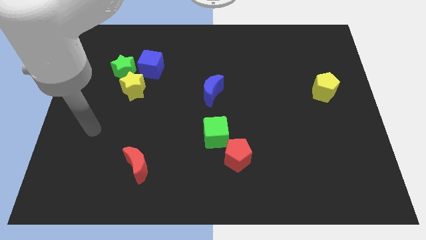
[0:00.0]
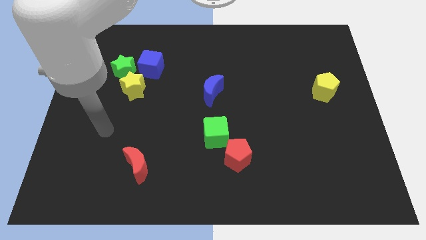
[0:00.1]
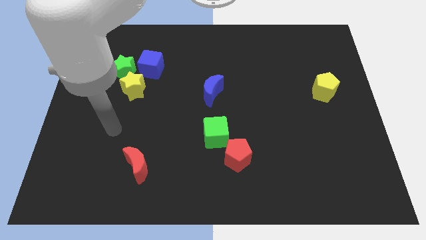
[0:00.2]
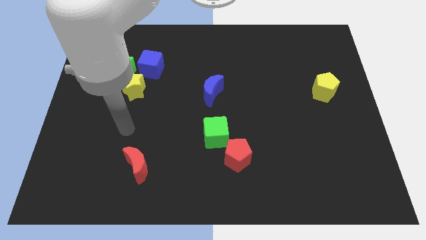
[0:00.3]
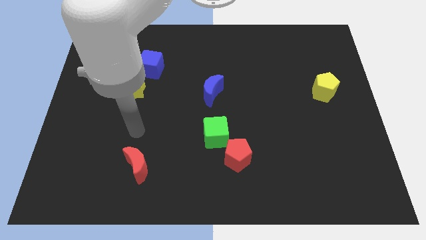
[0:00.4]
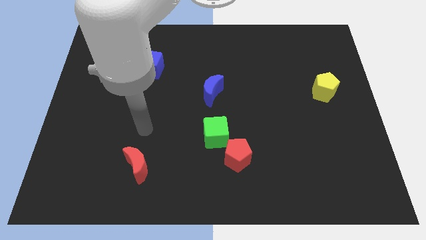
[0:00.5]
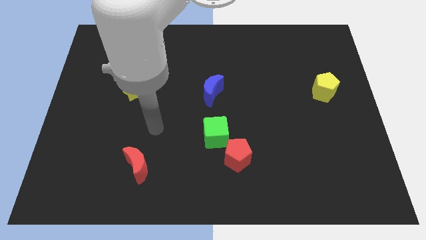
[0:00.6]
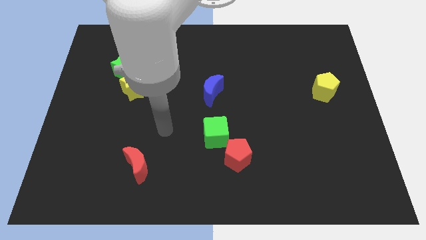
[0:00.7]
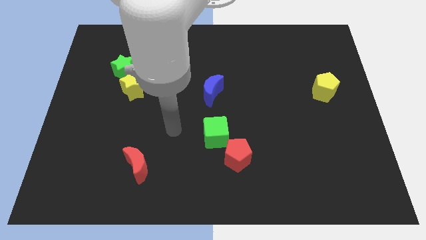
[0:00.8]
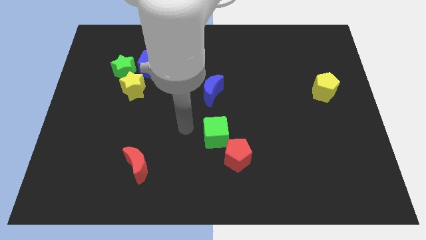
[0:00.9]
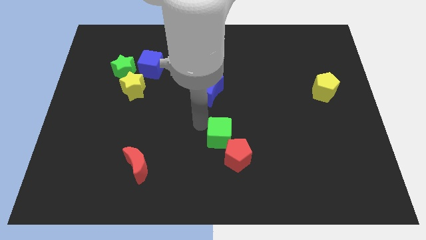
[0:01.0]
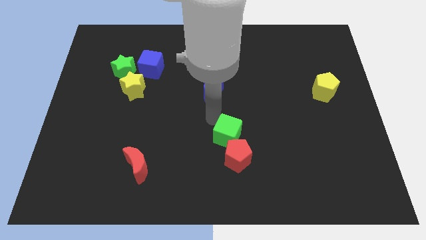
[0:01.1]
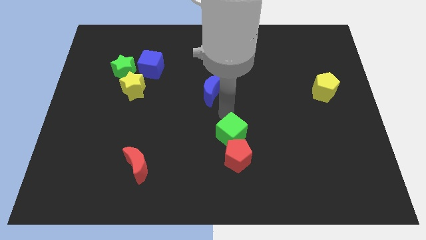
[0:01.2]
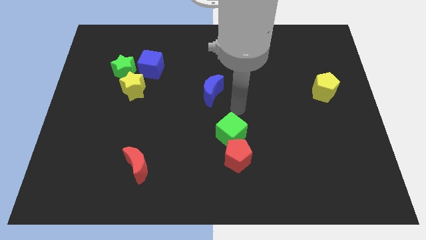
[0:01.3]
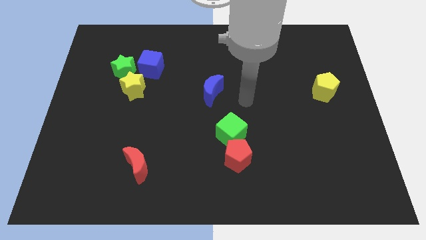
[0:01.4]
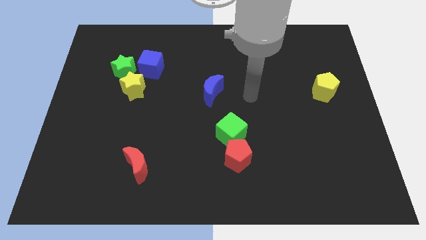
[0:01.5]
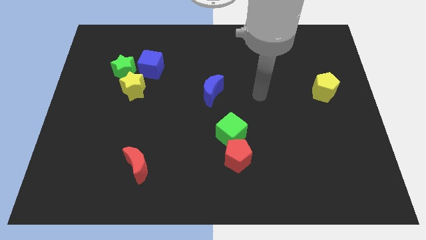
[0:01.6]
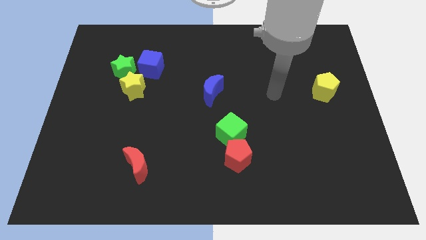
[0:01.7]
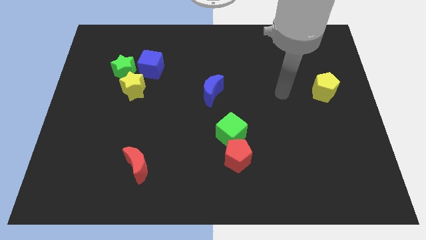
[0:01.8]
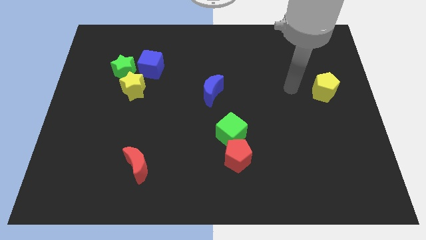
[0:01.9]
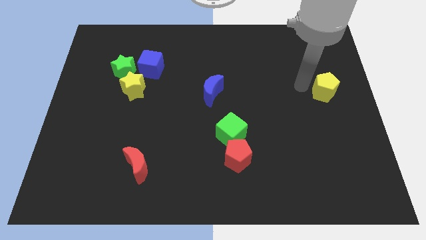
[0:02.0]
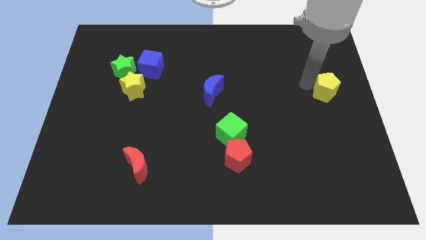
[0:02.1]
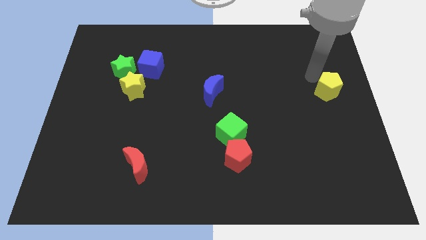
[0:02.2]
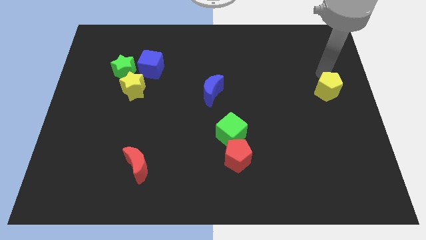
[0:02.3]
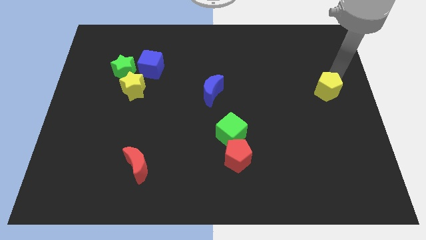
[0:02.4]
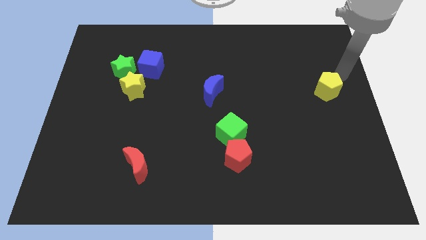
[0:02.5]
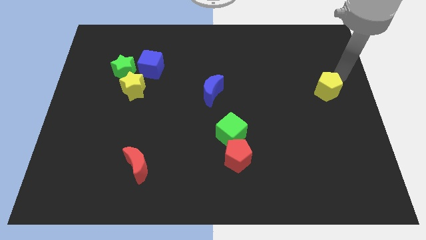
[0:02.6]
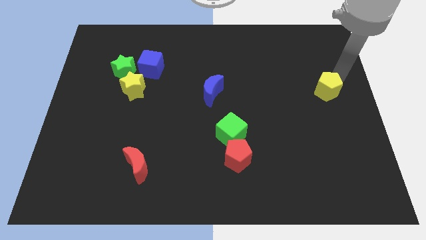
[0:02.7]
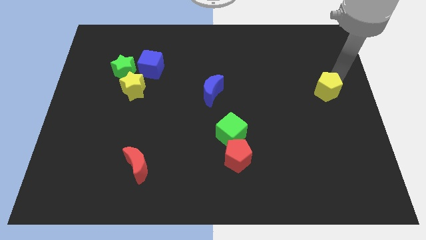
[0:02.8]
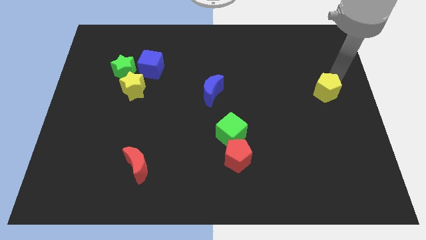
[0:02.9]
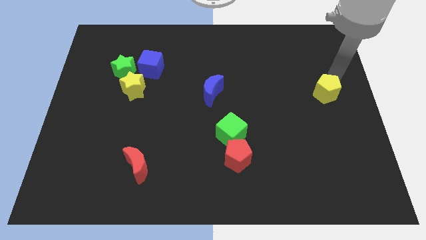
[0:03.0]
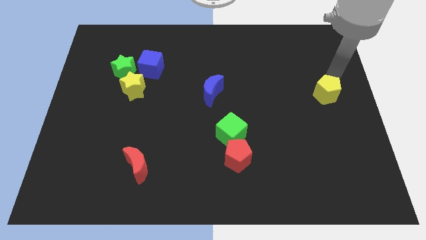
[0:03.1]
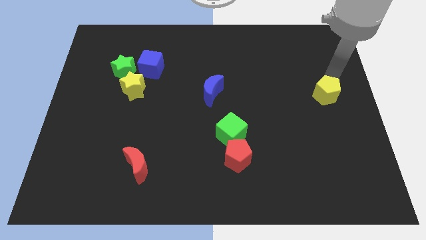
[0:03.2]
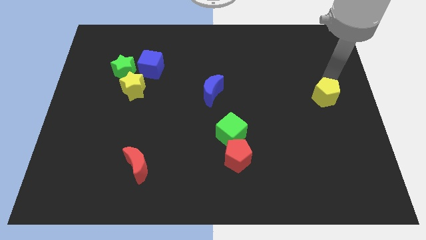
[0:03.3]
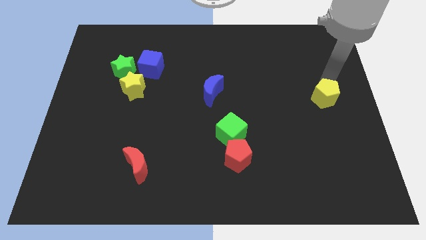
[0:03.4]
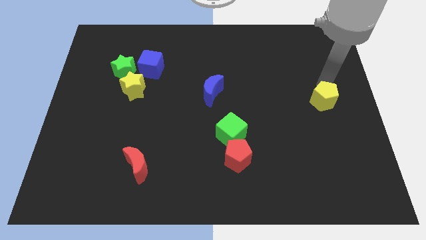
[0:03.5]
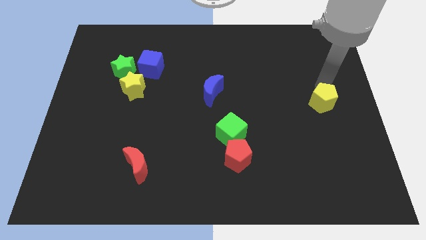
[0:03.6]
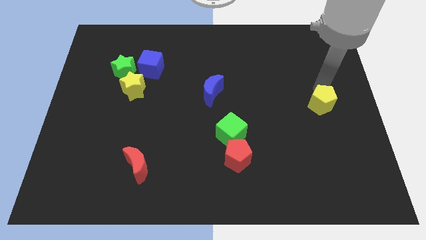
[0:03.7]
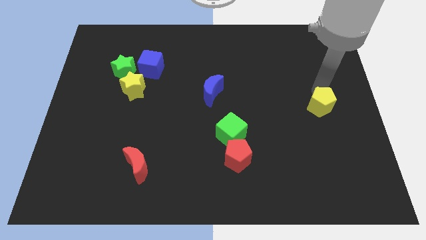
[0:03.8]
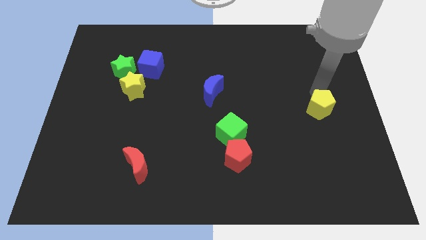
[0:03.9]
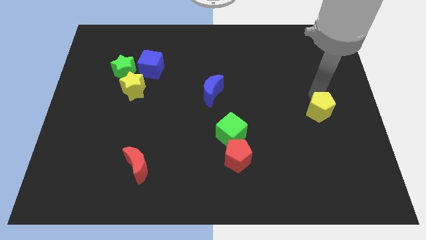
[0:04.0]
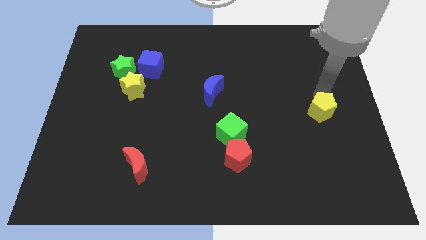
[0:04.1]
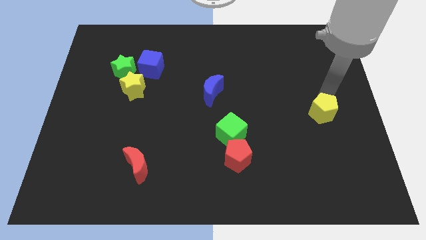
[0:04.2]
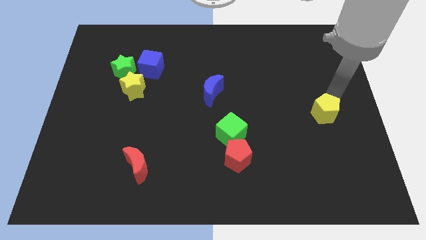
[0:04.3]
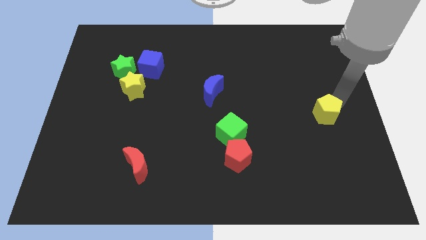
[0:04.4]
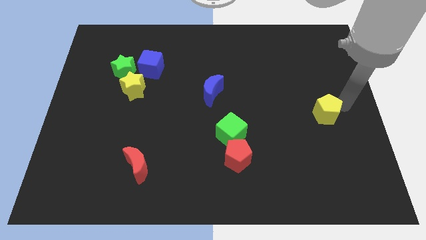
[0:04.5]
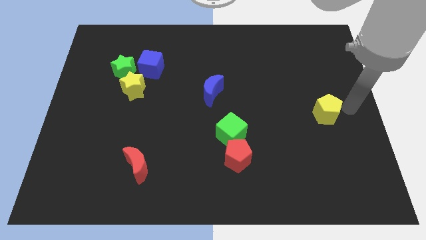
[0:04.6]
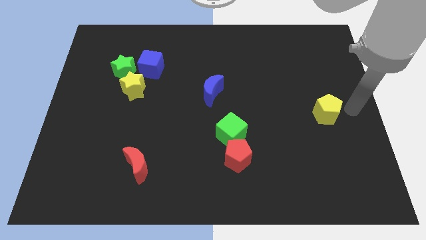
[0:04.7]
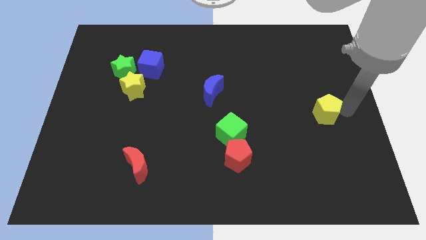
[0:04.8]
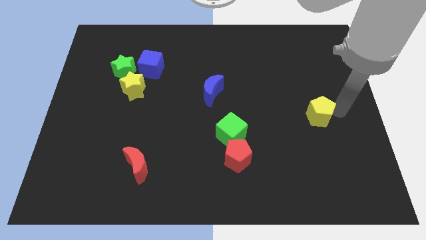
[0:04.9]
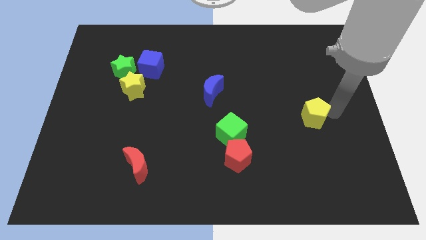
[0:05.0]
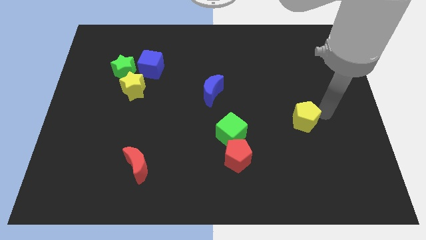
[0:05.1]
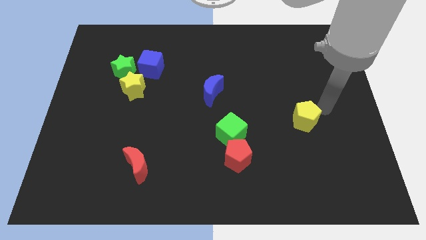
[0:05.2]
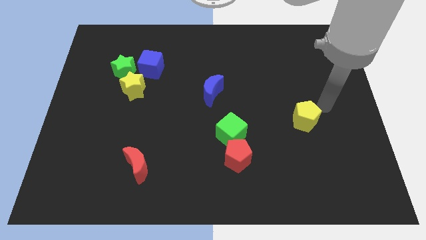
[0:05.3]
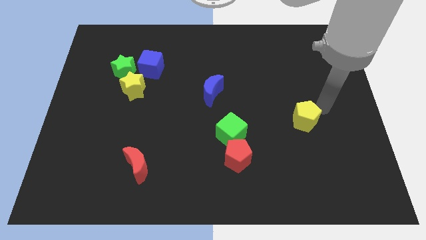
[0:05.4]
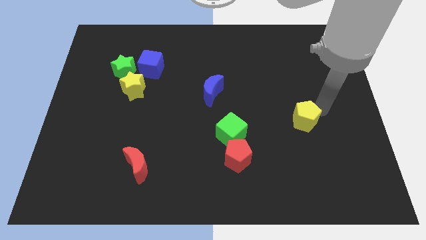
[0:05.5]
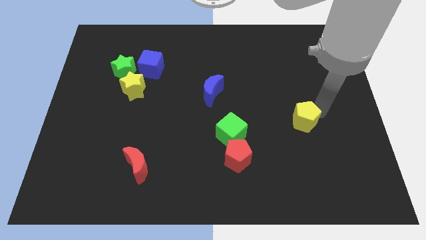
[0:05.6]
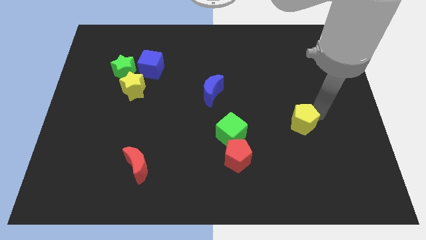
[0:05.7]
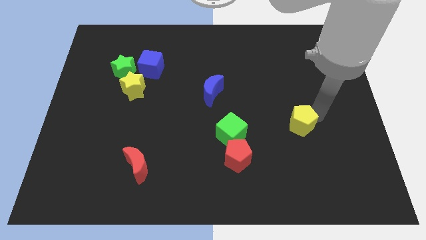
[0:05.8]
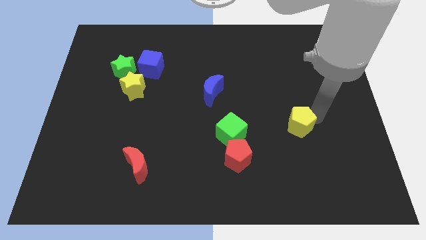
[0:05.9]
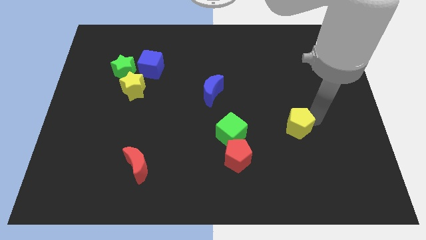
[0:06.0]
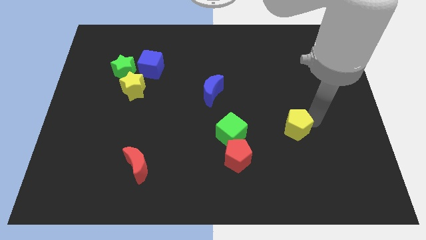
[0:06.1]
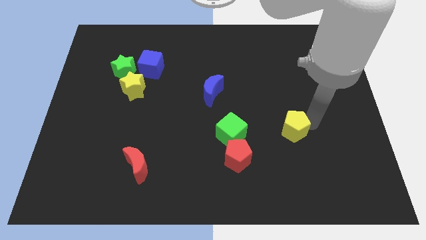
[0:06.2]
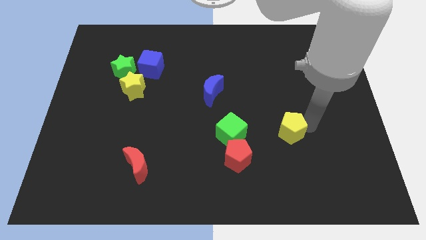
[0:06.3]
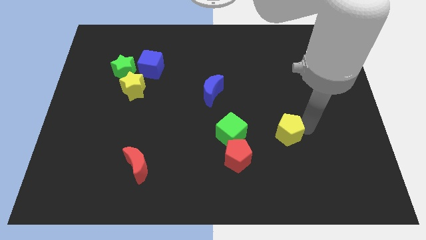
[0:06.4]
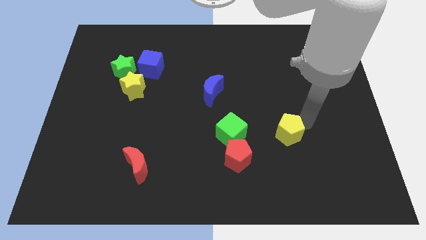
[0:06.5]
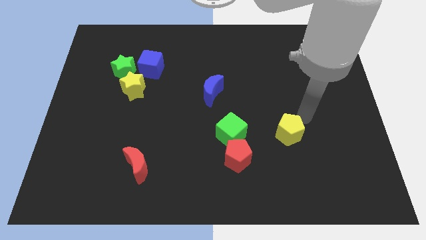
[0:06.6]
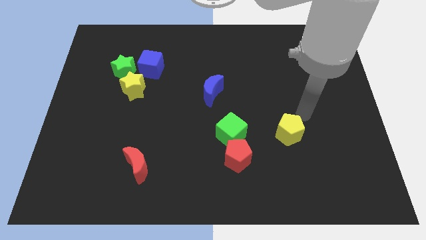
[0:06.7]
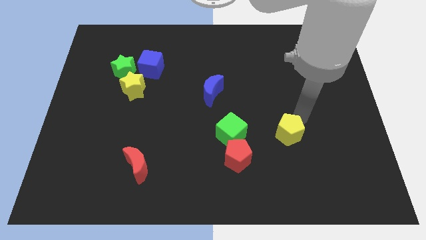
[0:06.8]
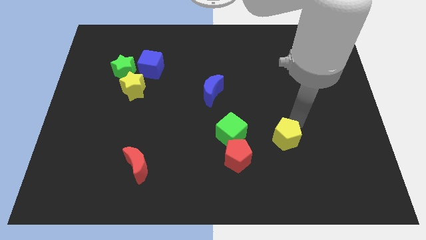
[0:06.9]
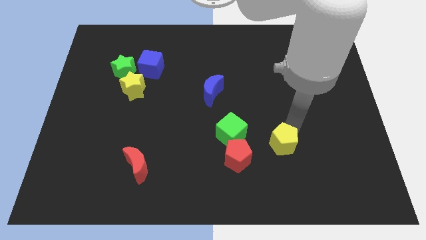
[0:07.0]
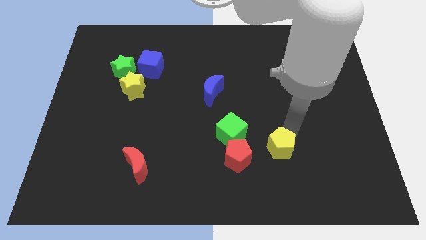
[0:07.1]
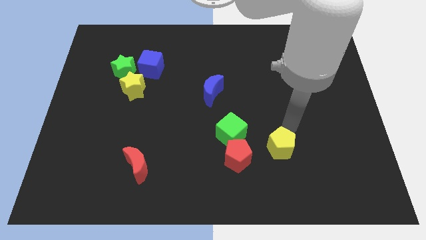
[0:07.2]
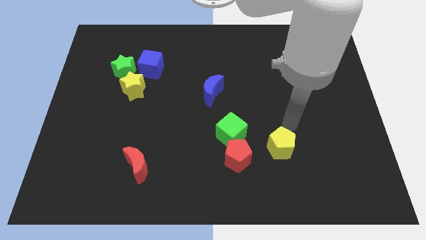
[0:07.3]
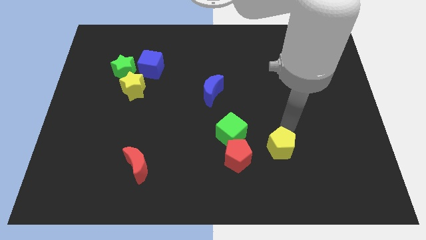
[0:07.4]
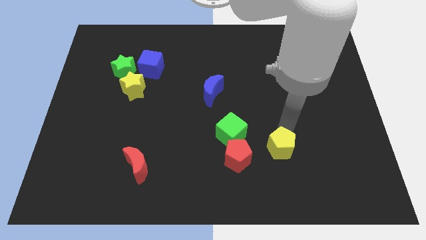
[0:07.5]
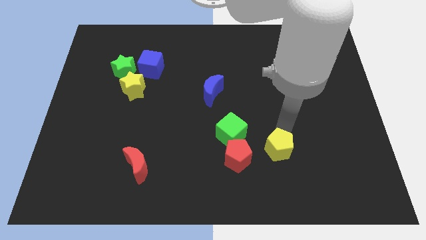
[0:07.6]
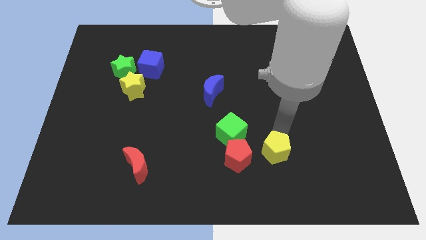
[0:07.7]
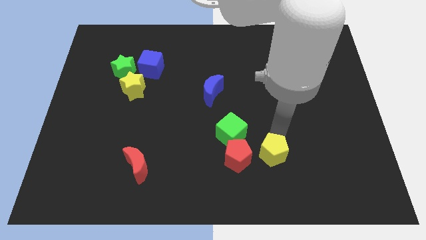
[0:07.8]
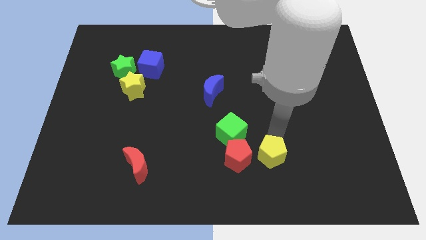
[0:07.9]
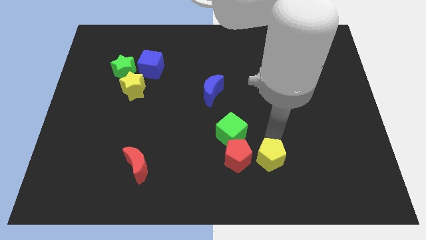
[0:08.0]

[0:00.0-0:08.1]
slide the yellow pentagon to the bottom right of the red pentagon
